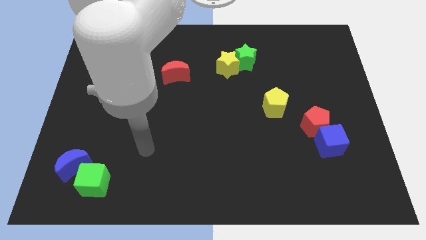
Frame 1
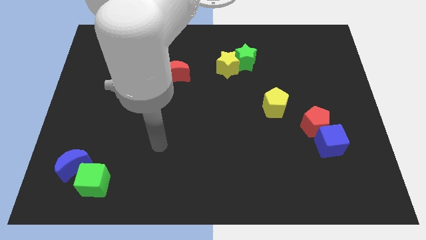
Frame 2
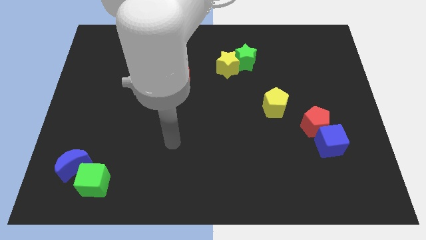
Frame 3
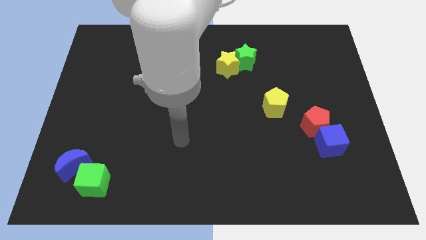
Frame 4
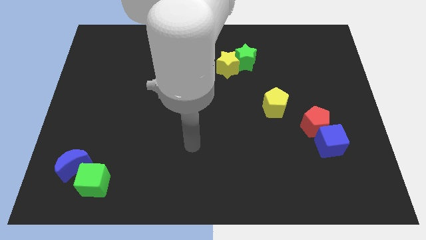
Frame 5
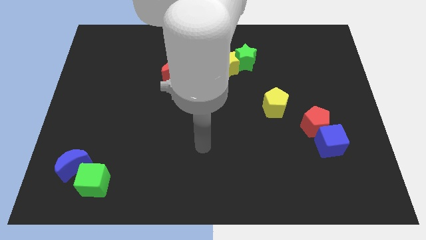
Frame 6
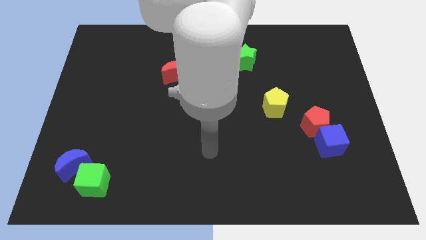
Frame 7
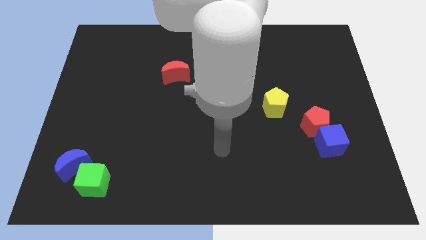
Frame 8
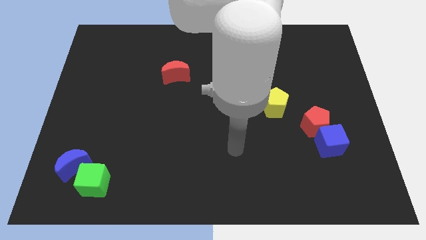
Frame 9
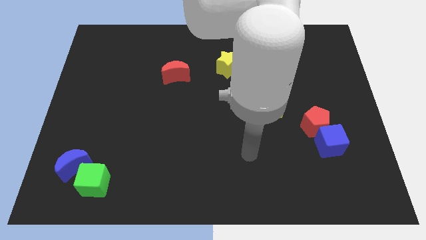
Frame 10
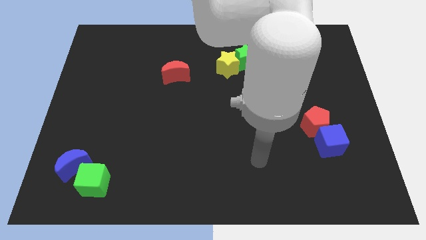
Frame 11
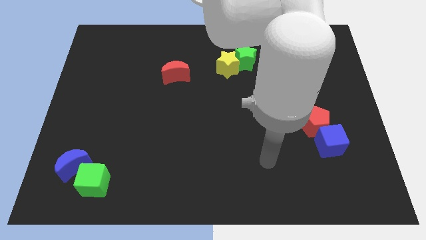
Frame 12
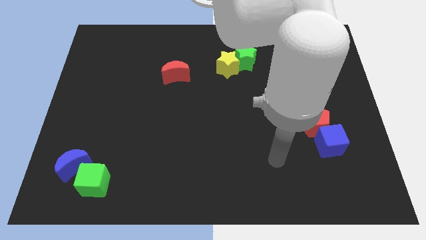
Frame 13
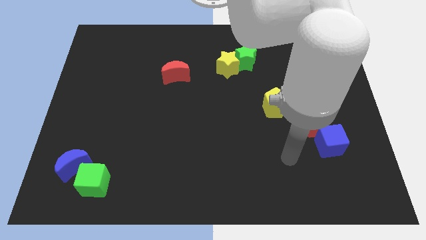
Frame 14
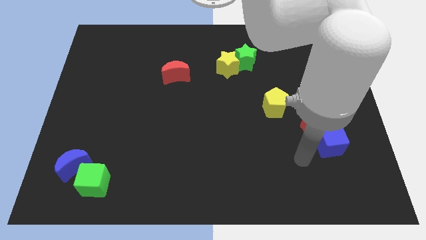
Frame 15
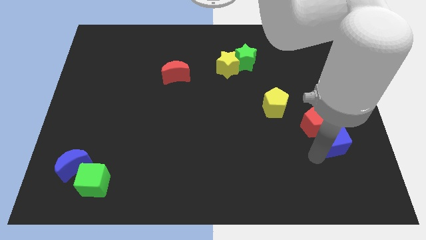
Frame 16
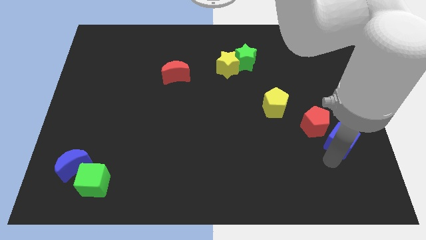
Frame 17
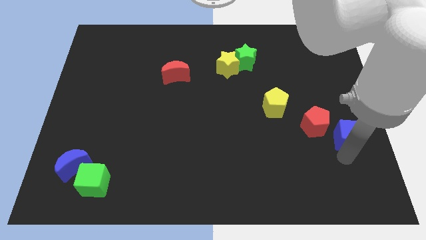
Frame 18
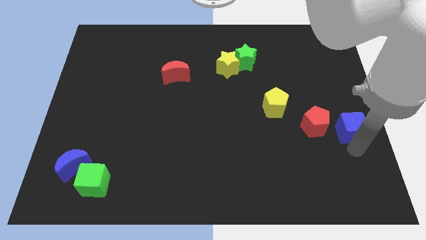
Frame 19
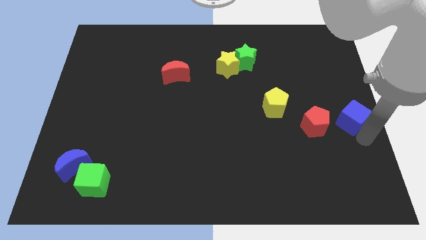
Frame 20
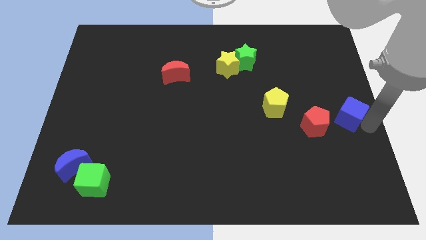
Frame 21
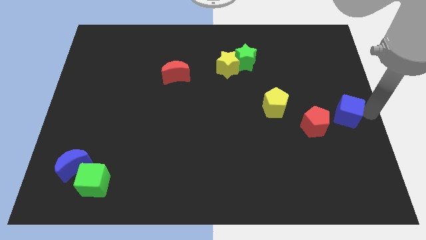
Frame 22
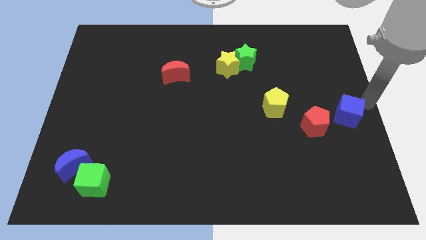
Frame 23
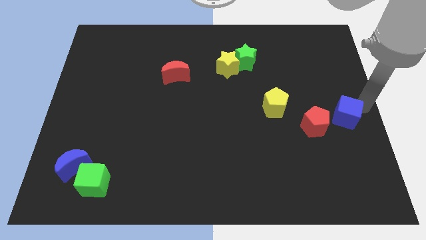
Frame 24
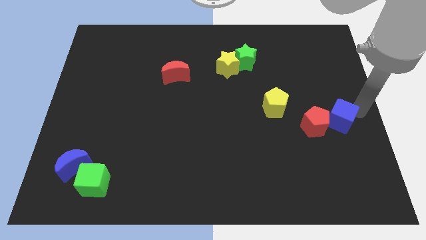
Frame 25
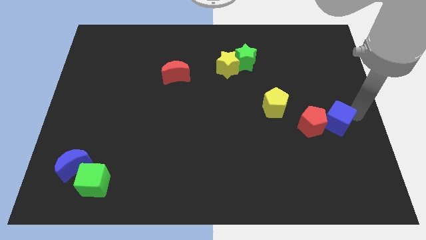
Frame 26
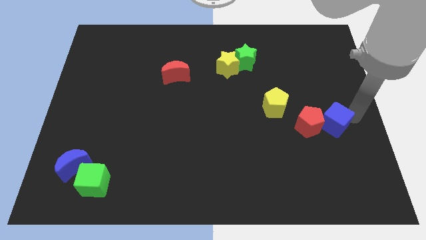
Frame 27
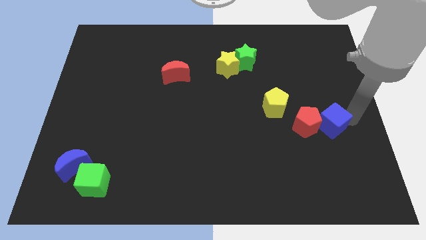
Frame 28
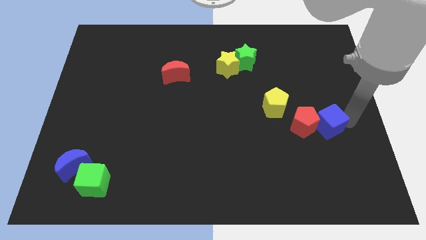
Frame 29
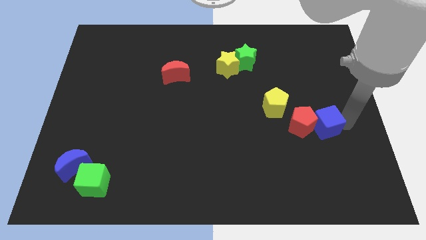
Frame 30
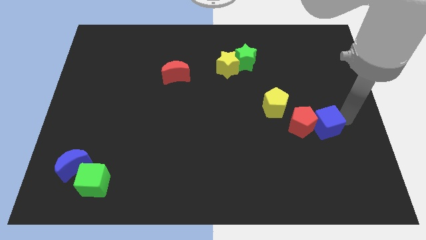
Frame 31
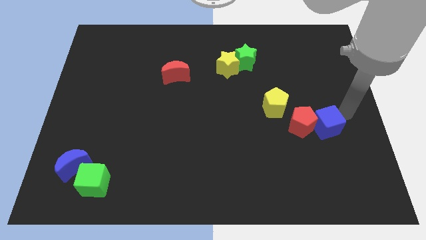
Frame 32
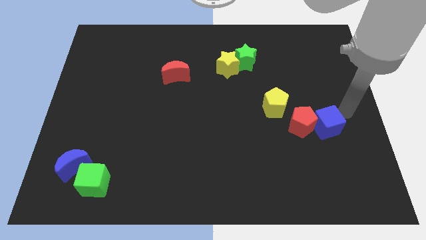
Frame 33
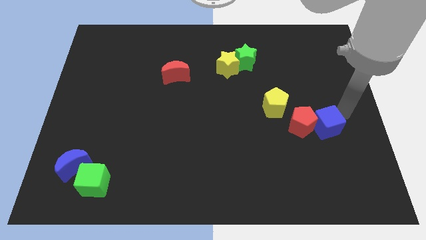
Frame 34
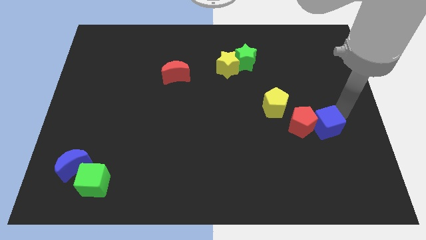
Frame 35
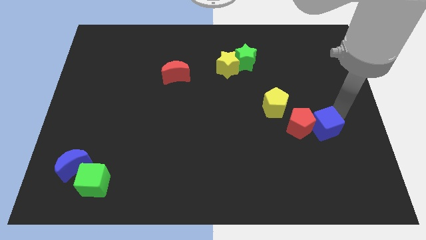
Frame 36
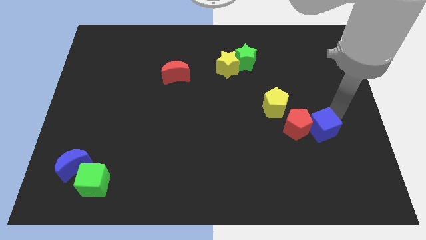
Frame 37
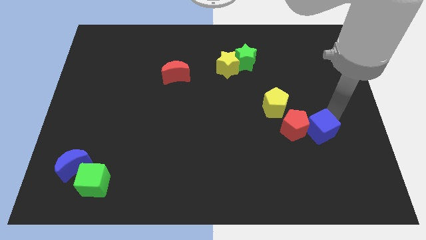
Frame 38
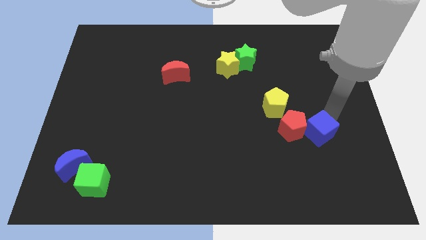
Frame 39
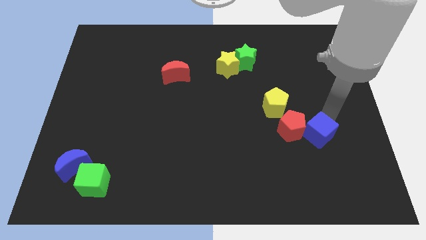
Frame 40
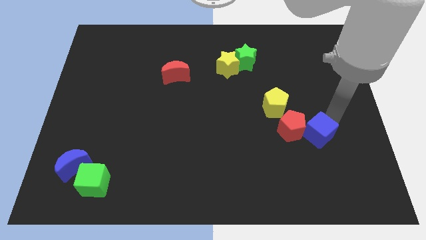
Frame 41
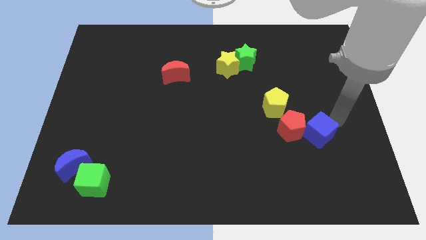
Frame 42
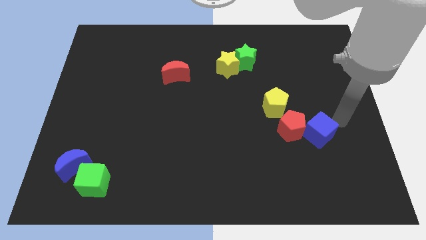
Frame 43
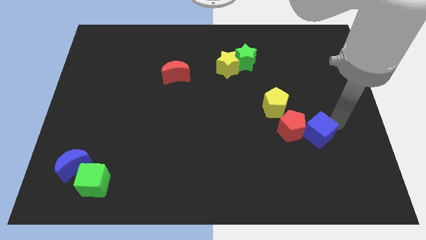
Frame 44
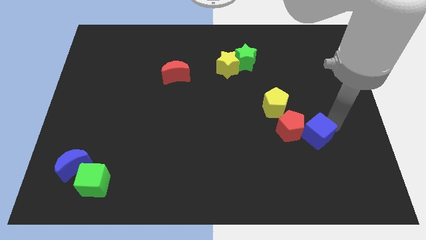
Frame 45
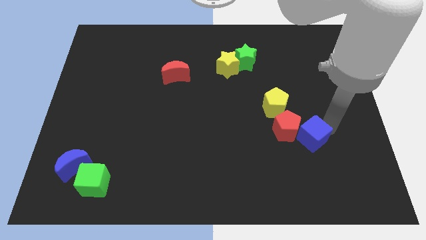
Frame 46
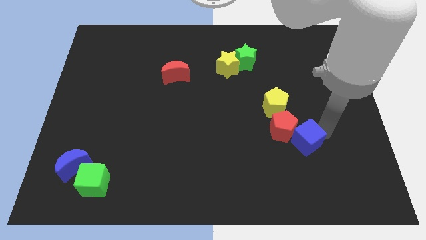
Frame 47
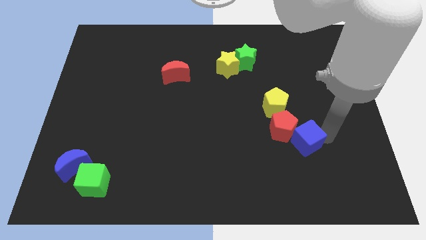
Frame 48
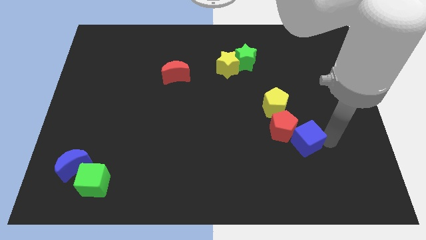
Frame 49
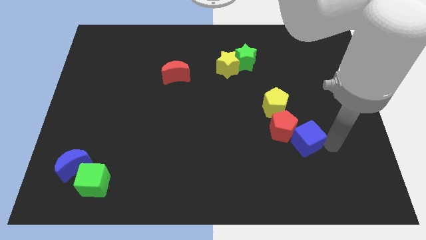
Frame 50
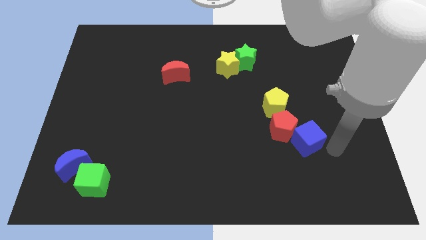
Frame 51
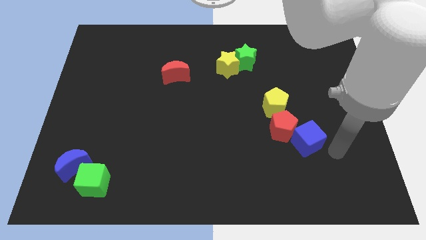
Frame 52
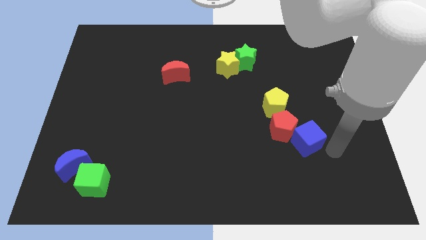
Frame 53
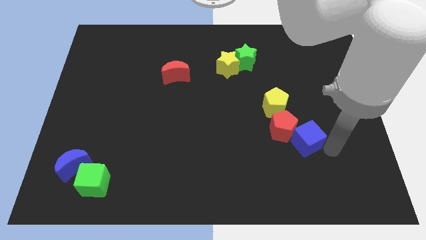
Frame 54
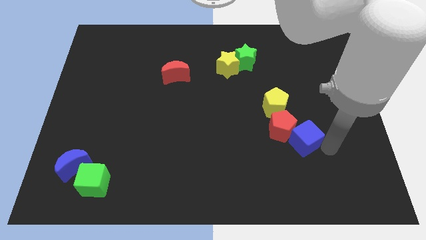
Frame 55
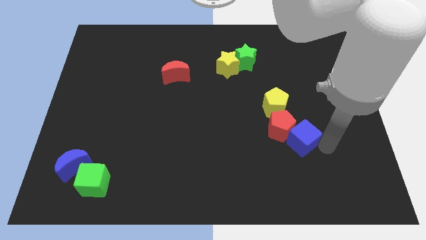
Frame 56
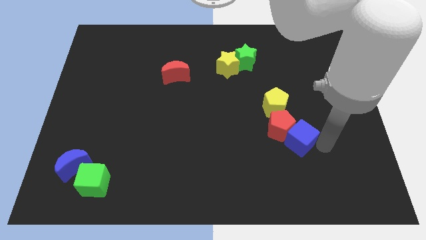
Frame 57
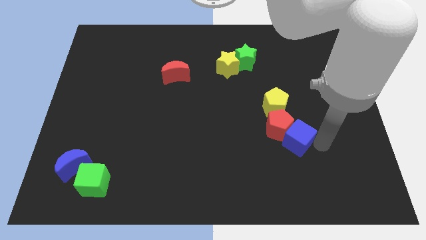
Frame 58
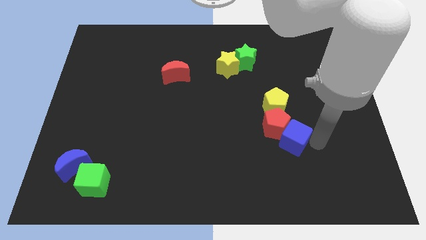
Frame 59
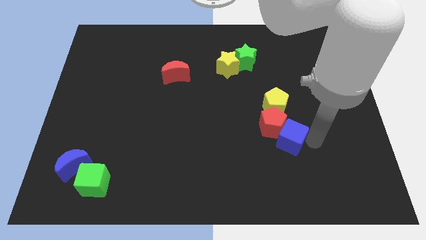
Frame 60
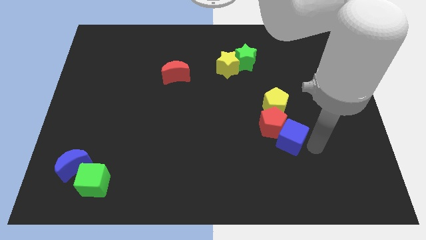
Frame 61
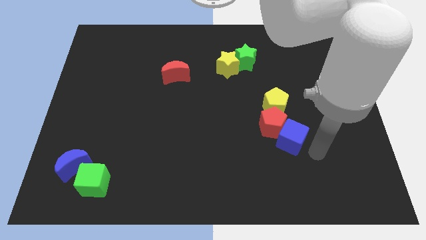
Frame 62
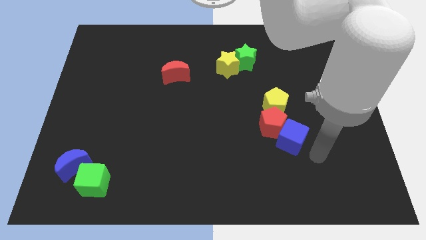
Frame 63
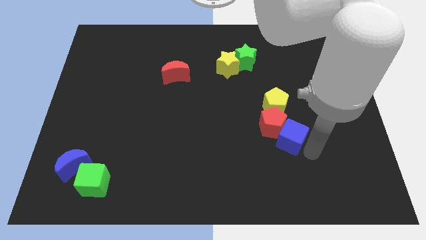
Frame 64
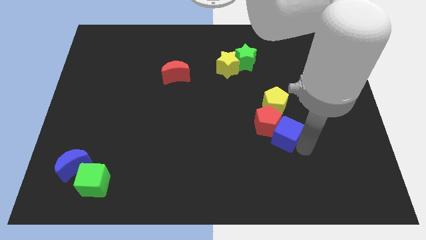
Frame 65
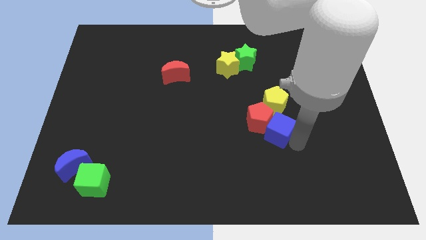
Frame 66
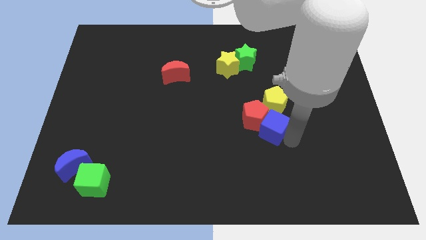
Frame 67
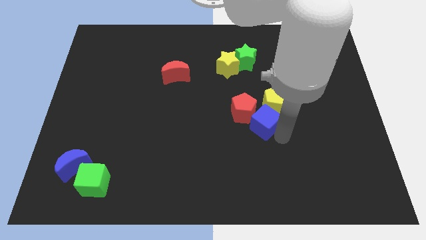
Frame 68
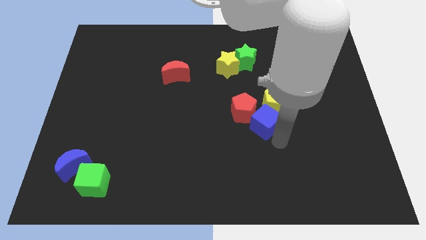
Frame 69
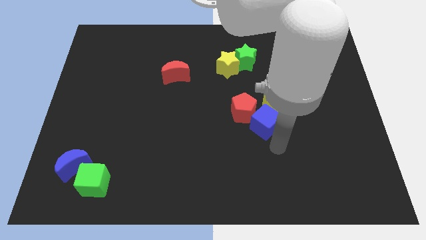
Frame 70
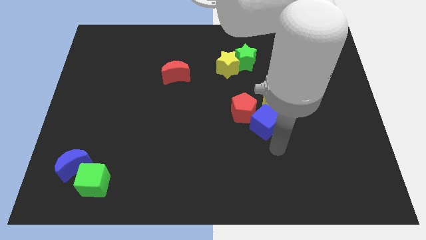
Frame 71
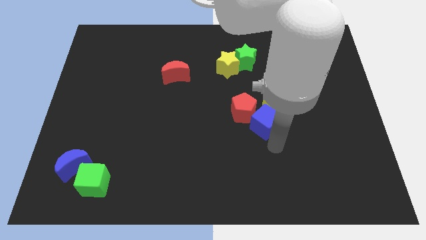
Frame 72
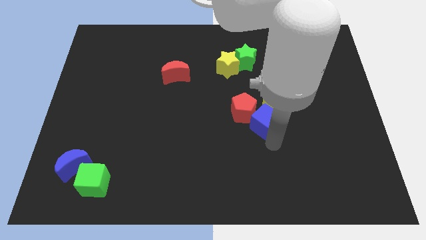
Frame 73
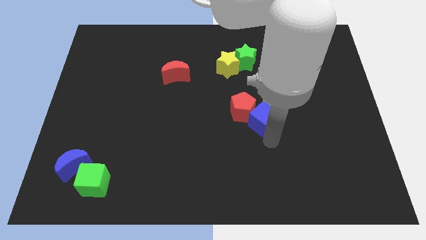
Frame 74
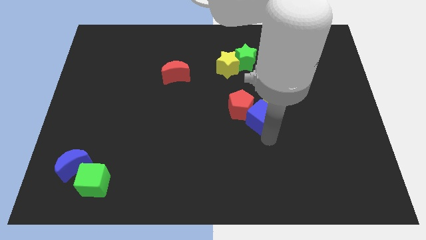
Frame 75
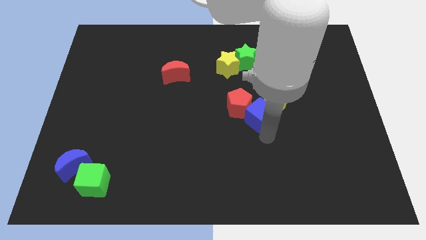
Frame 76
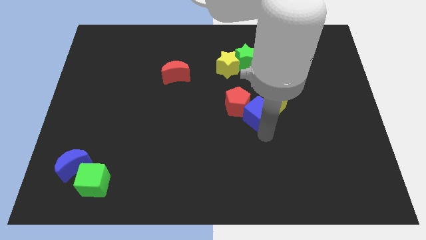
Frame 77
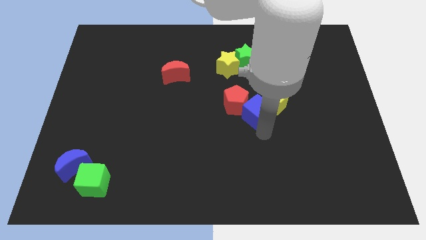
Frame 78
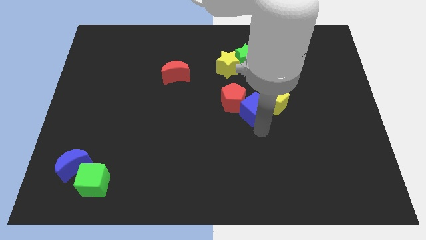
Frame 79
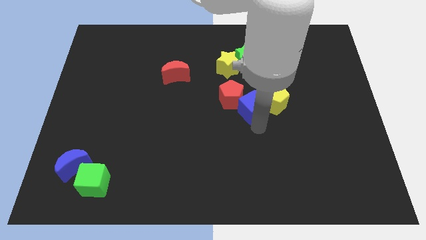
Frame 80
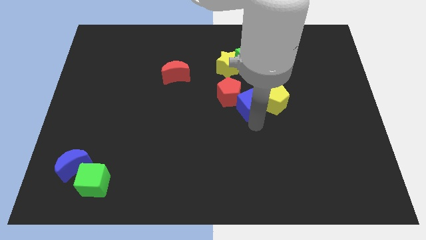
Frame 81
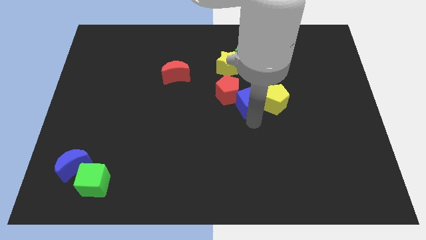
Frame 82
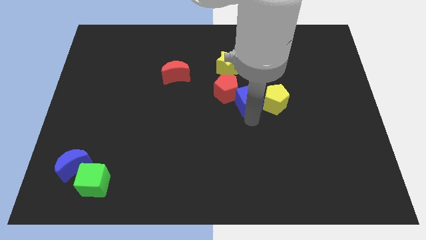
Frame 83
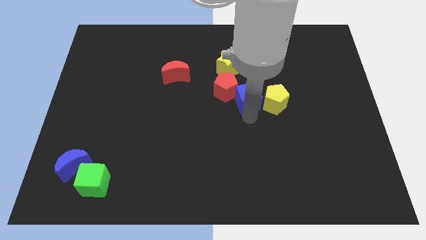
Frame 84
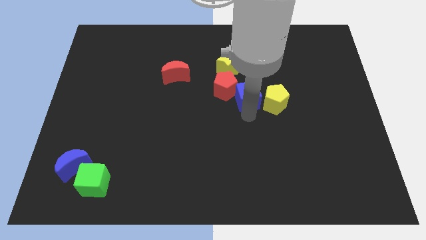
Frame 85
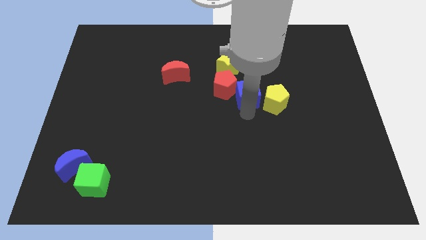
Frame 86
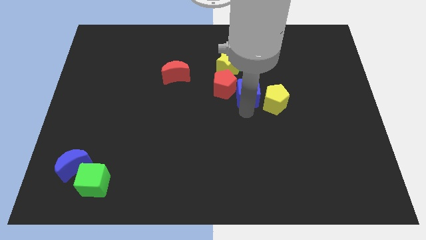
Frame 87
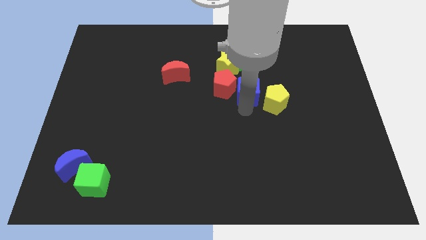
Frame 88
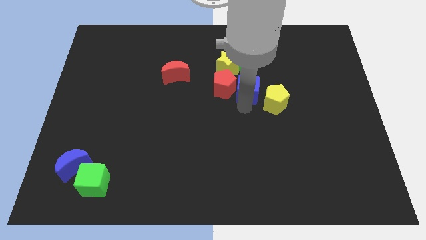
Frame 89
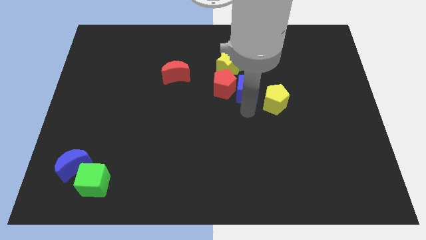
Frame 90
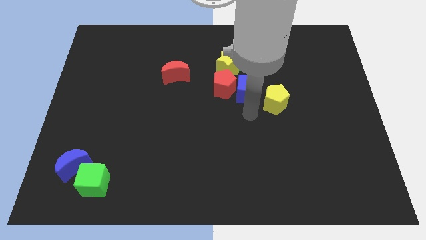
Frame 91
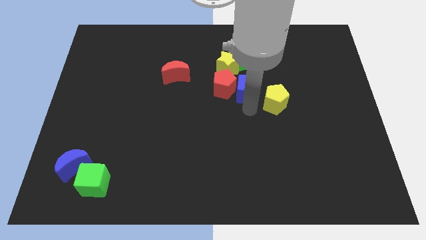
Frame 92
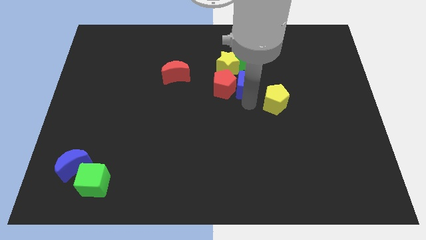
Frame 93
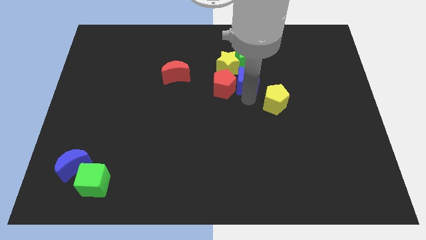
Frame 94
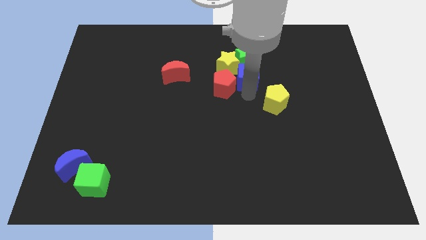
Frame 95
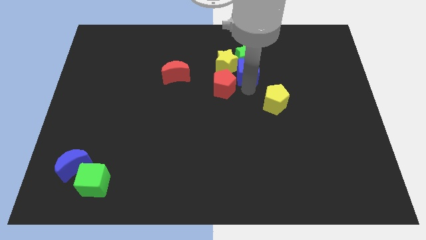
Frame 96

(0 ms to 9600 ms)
put the blue cube next to the green star
